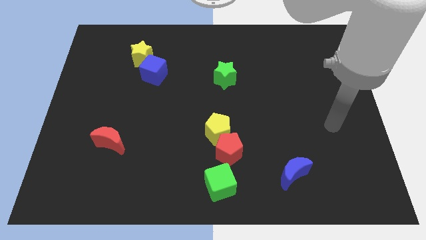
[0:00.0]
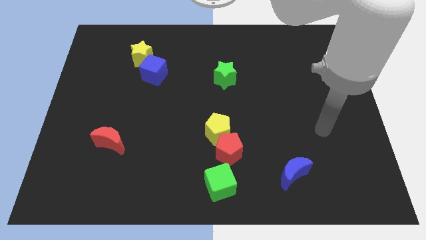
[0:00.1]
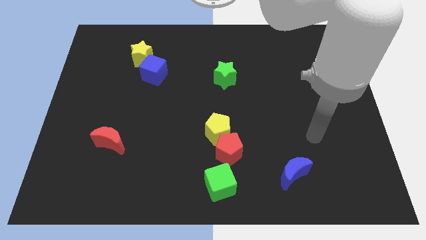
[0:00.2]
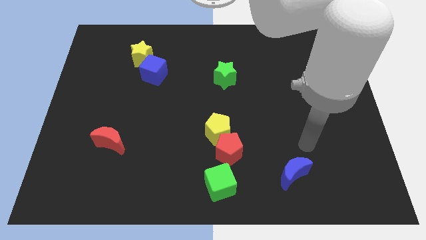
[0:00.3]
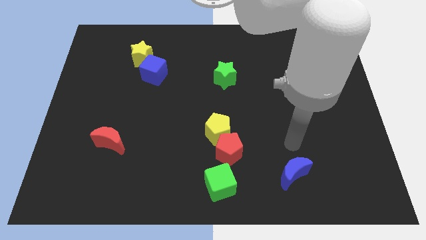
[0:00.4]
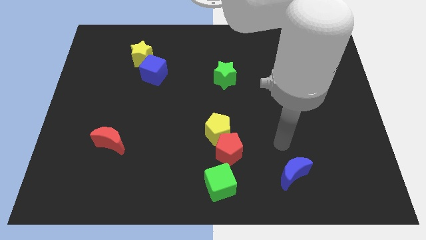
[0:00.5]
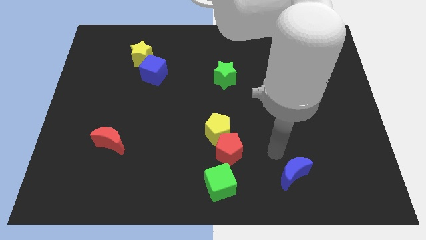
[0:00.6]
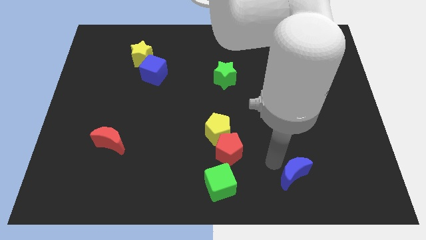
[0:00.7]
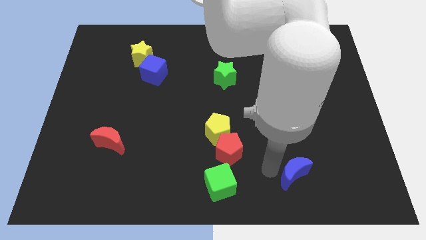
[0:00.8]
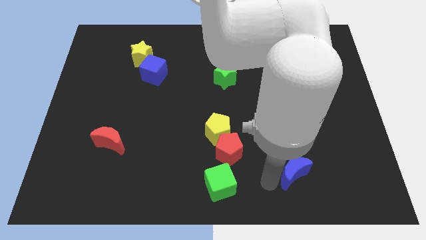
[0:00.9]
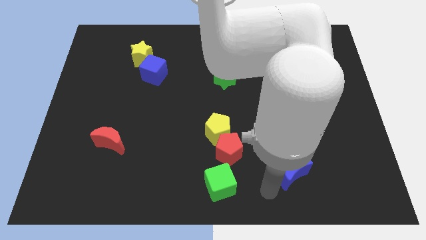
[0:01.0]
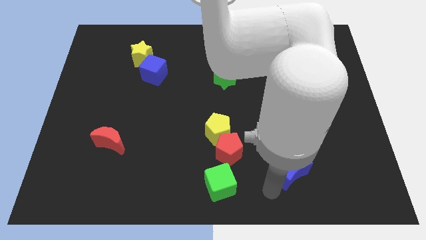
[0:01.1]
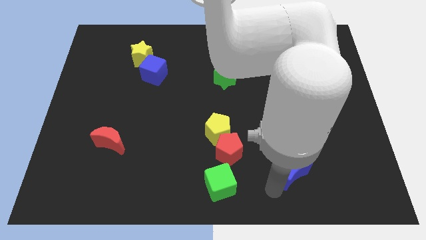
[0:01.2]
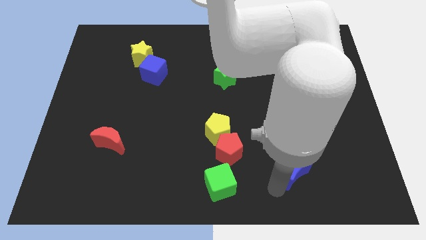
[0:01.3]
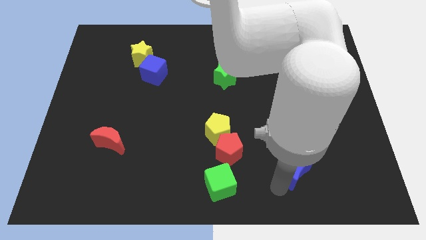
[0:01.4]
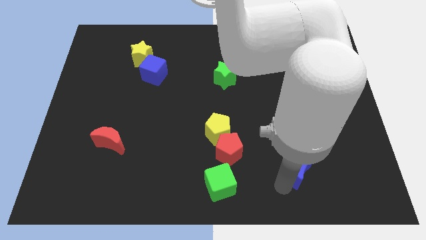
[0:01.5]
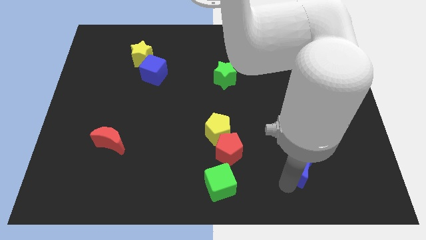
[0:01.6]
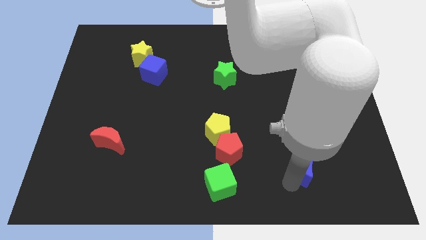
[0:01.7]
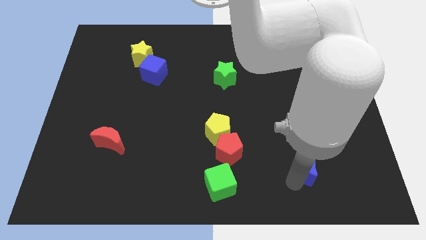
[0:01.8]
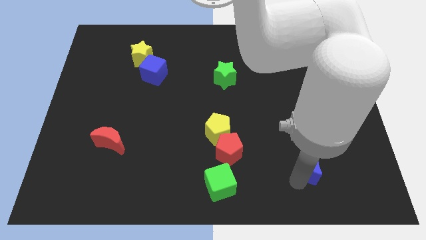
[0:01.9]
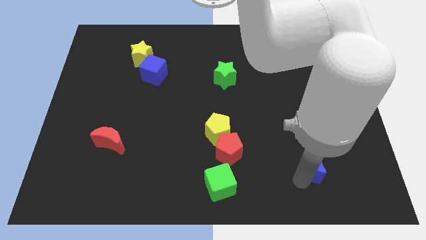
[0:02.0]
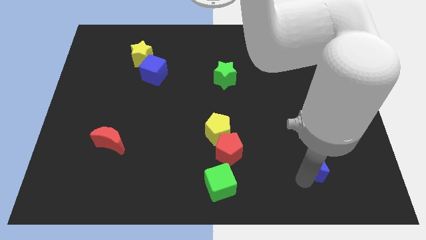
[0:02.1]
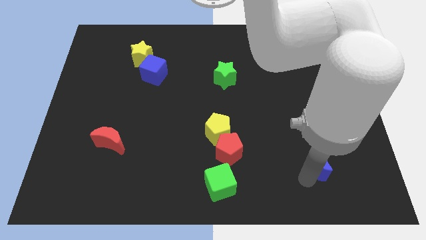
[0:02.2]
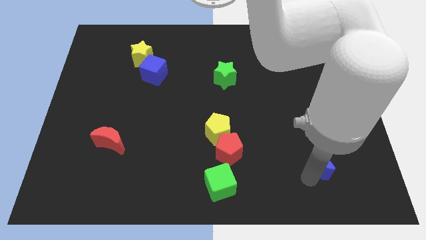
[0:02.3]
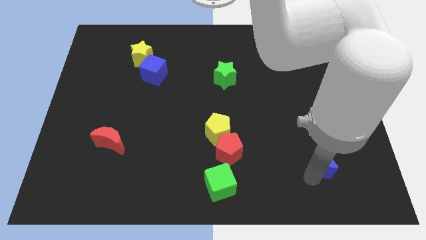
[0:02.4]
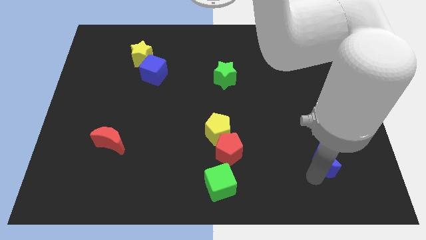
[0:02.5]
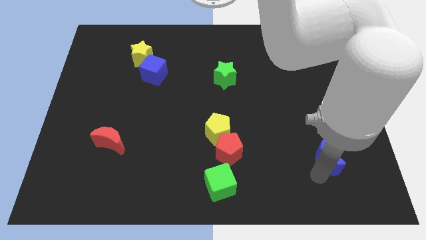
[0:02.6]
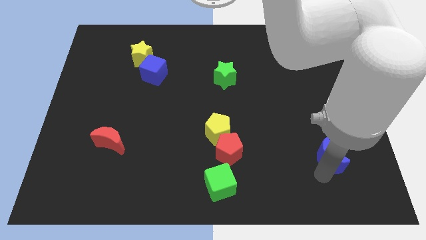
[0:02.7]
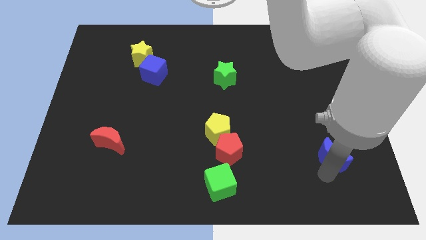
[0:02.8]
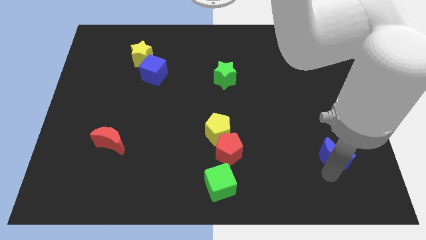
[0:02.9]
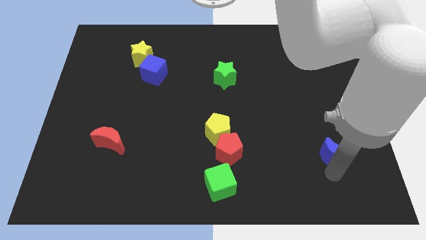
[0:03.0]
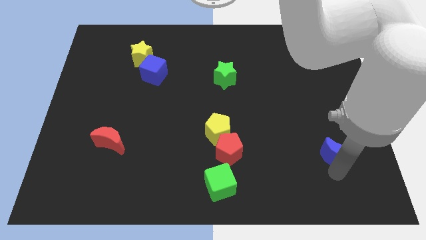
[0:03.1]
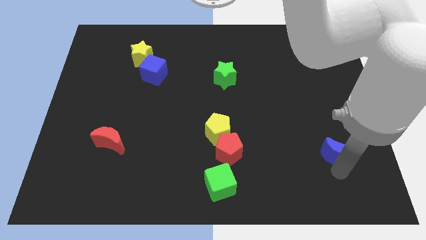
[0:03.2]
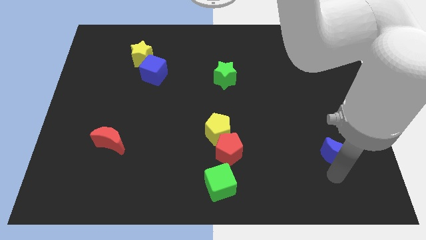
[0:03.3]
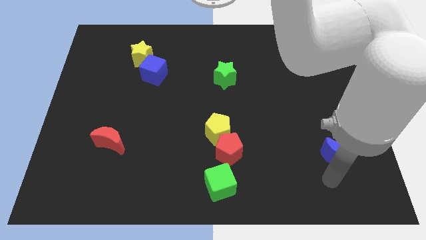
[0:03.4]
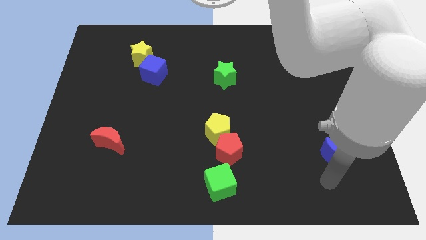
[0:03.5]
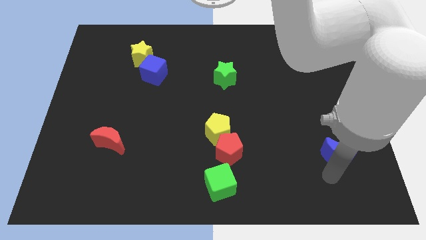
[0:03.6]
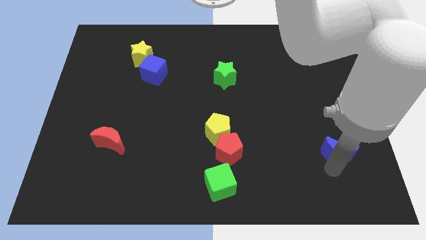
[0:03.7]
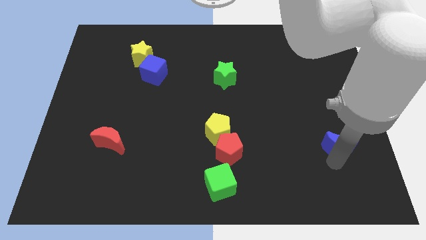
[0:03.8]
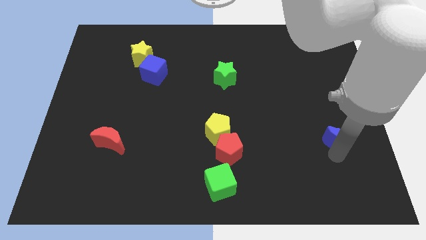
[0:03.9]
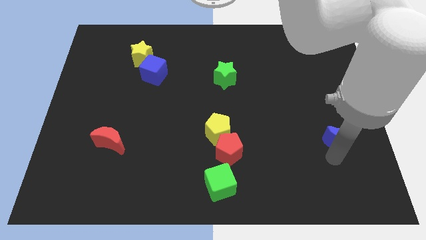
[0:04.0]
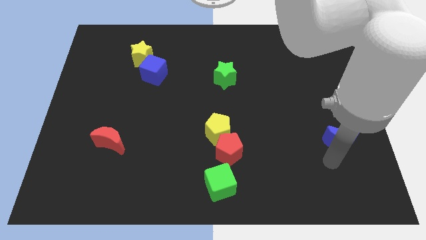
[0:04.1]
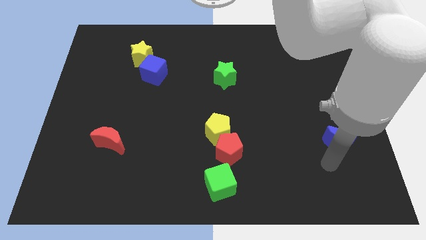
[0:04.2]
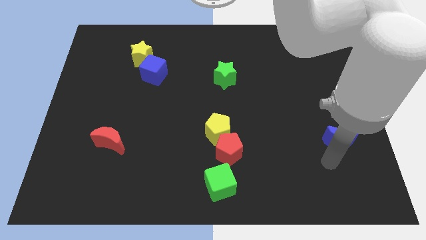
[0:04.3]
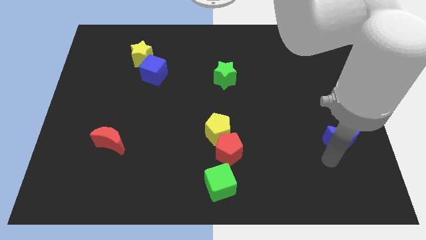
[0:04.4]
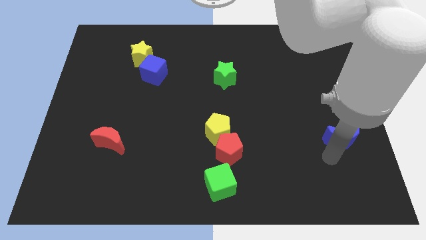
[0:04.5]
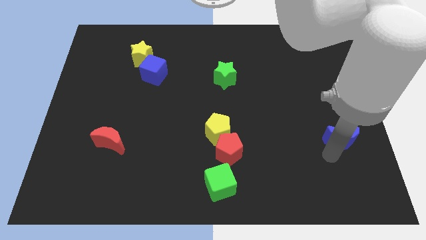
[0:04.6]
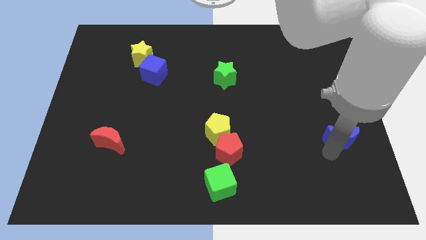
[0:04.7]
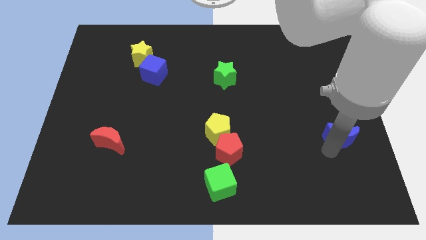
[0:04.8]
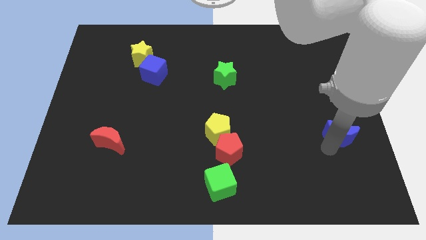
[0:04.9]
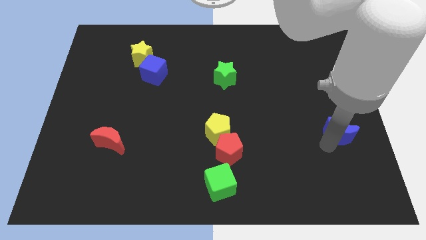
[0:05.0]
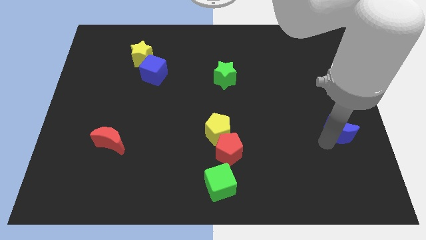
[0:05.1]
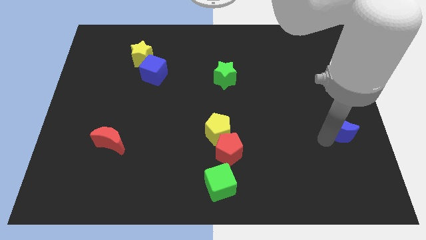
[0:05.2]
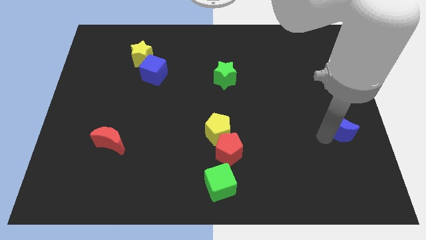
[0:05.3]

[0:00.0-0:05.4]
push the blue moon to the center right

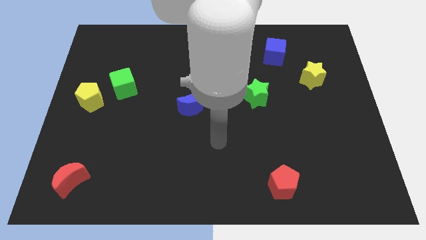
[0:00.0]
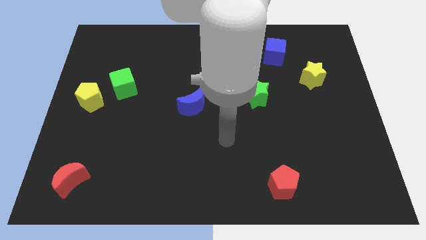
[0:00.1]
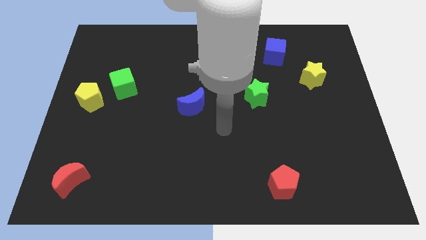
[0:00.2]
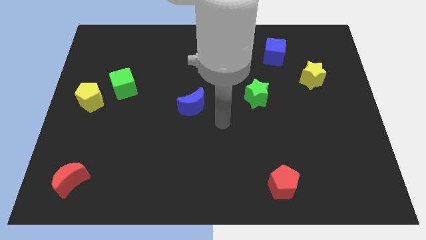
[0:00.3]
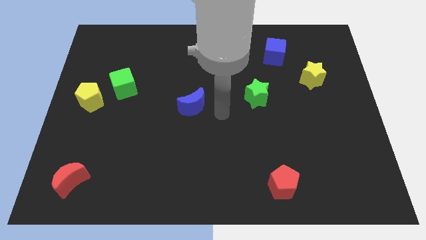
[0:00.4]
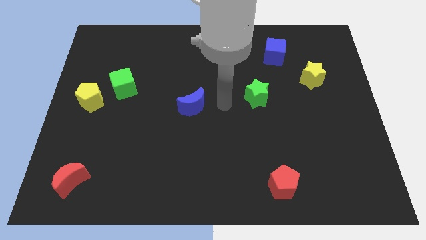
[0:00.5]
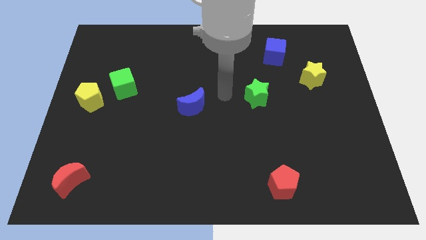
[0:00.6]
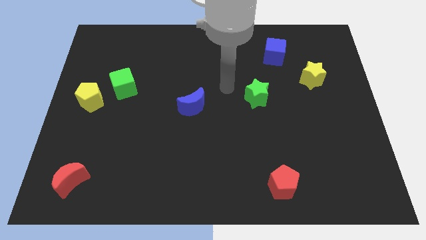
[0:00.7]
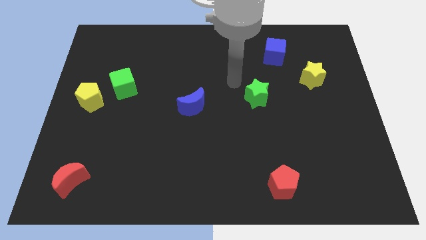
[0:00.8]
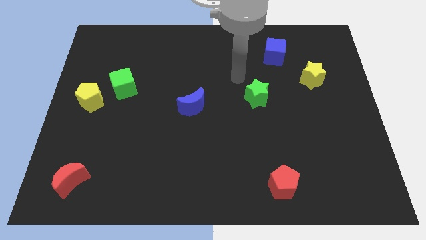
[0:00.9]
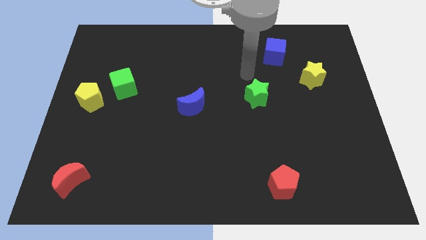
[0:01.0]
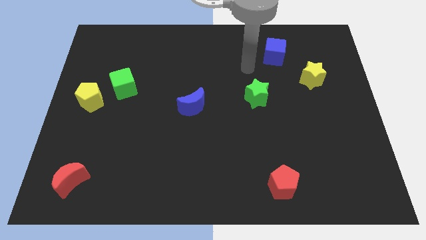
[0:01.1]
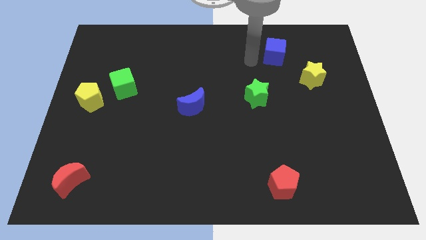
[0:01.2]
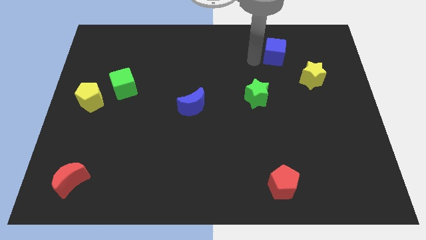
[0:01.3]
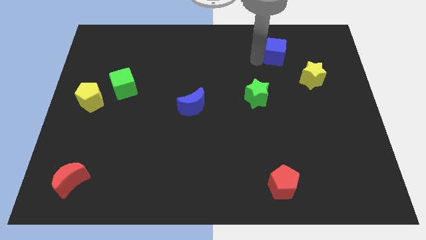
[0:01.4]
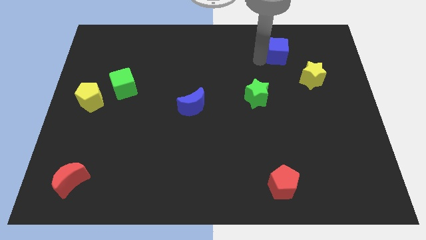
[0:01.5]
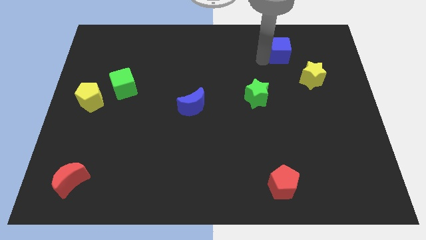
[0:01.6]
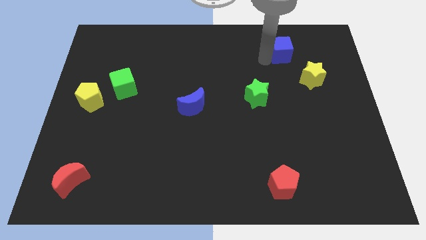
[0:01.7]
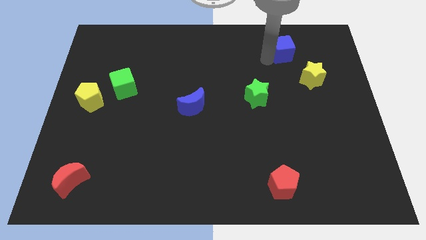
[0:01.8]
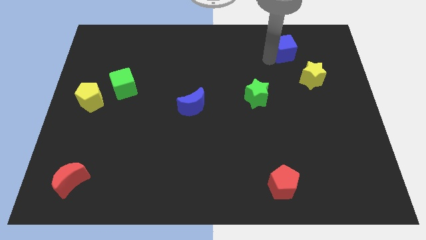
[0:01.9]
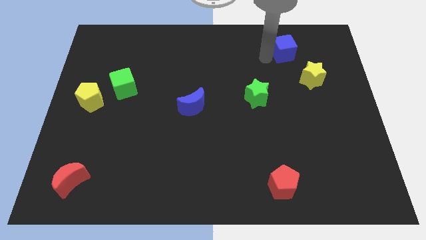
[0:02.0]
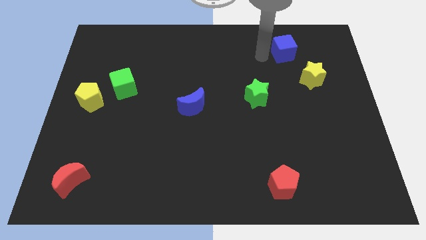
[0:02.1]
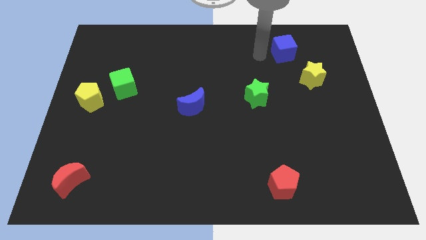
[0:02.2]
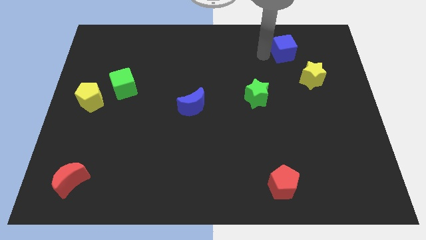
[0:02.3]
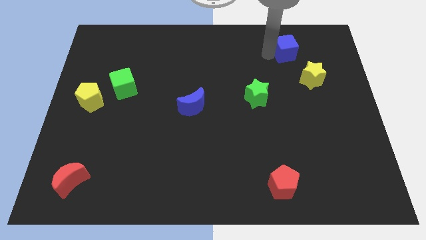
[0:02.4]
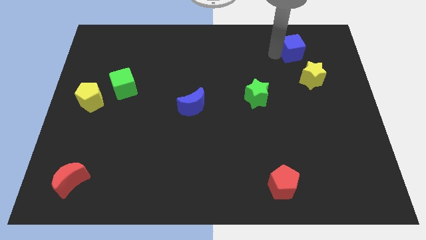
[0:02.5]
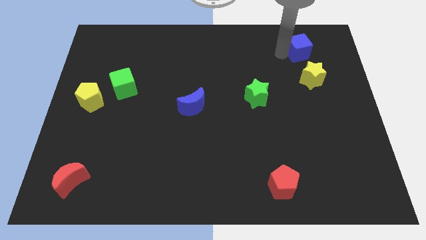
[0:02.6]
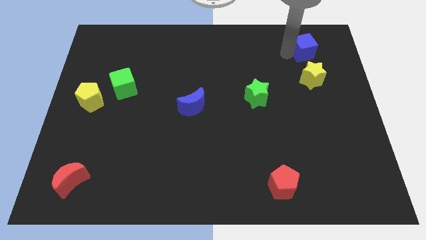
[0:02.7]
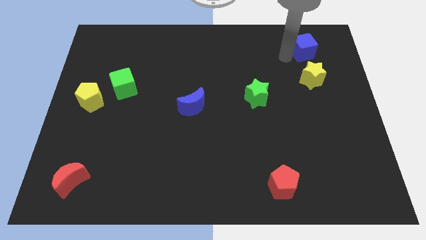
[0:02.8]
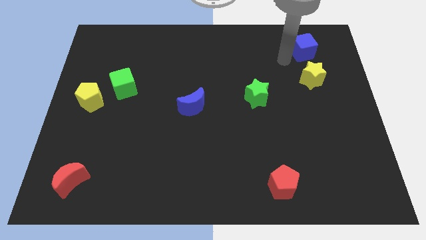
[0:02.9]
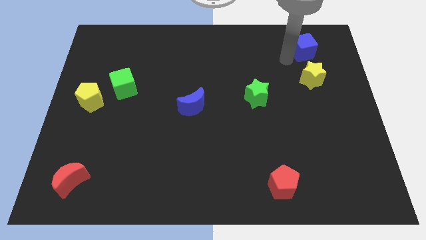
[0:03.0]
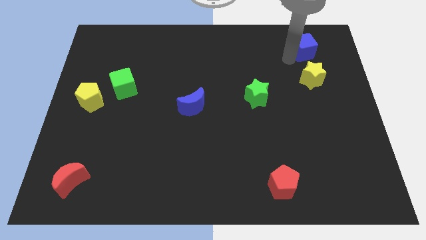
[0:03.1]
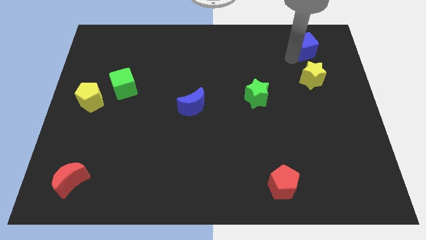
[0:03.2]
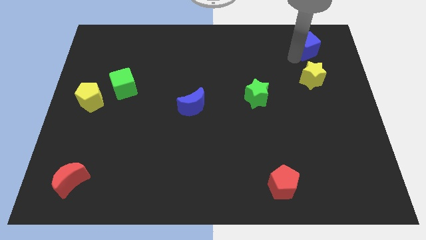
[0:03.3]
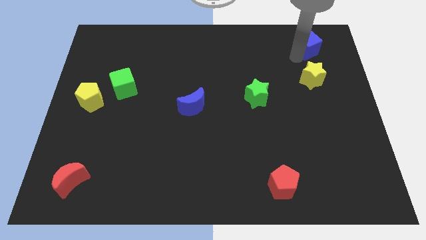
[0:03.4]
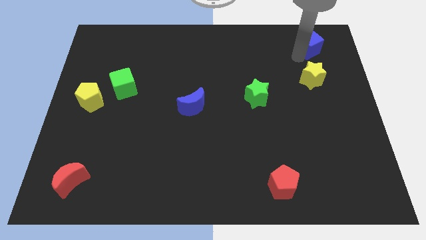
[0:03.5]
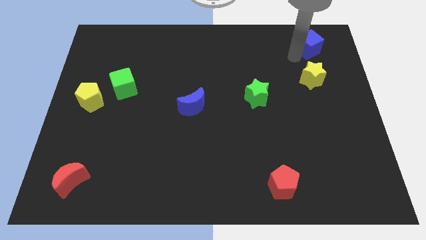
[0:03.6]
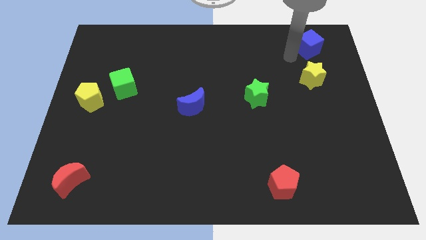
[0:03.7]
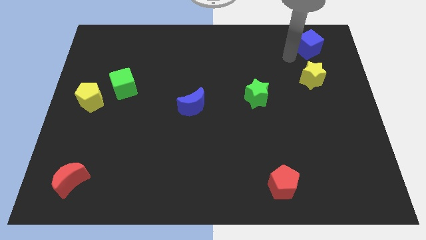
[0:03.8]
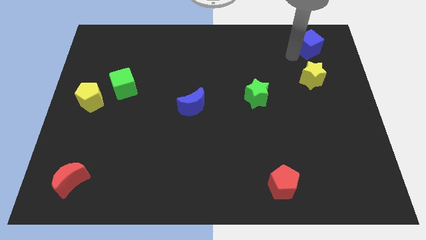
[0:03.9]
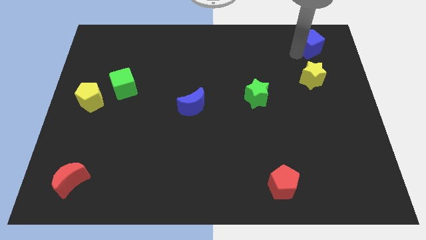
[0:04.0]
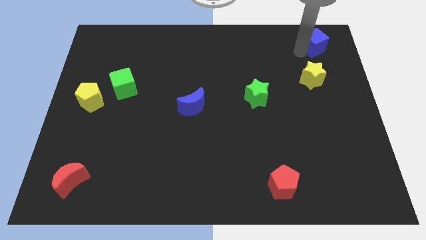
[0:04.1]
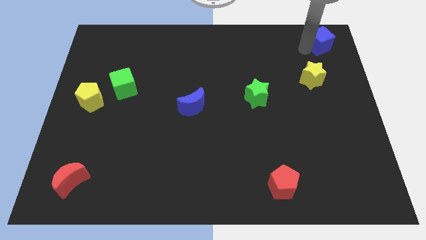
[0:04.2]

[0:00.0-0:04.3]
move the blue cube to the upper right corner
